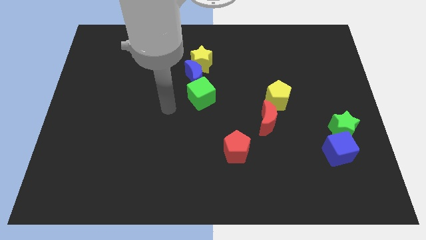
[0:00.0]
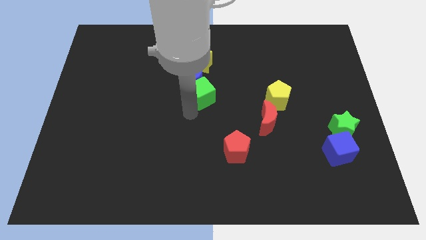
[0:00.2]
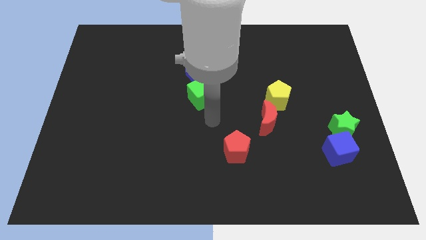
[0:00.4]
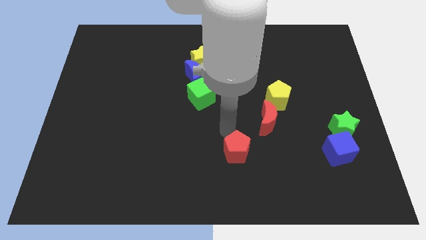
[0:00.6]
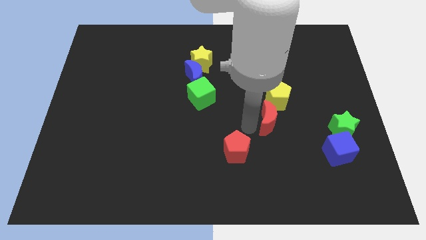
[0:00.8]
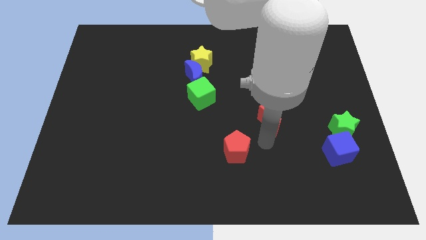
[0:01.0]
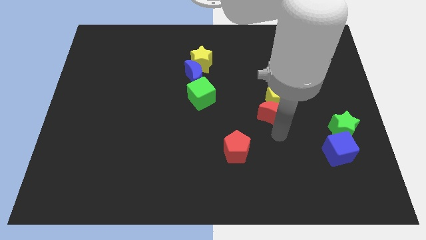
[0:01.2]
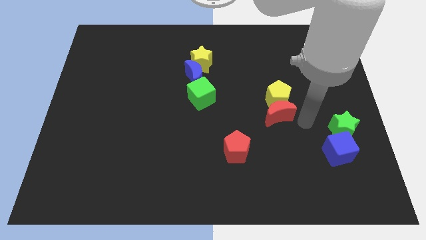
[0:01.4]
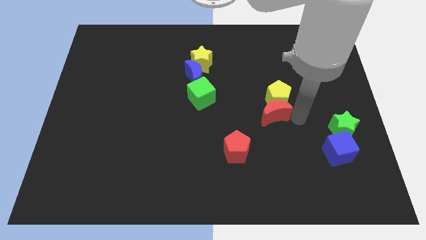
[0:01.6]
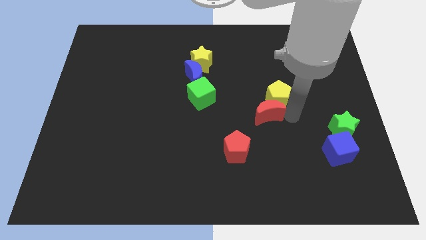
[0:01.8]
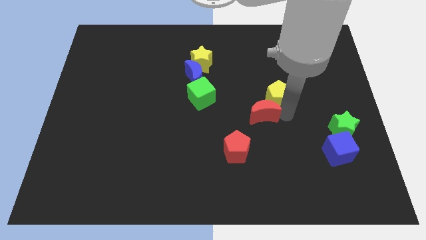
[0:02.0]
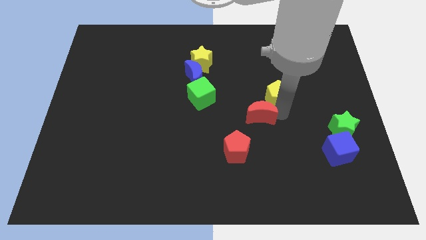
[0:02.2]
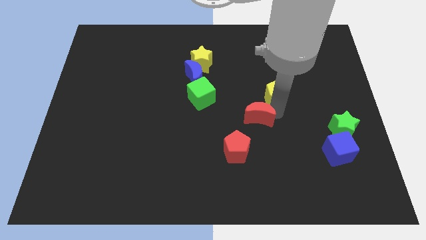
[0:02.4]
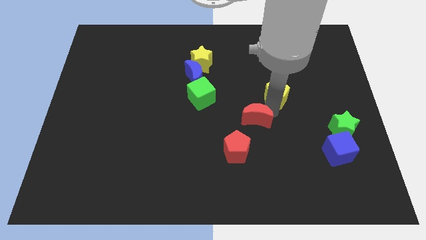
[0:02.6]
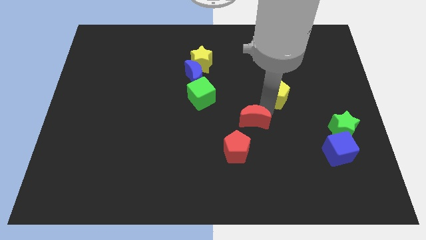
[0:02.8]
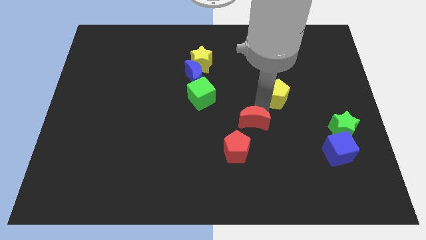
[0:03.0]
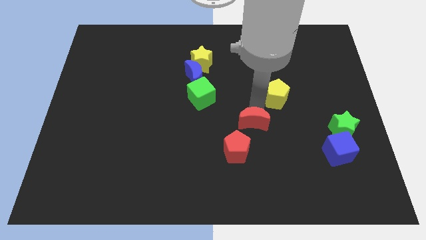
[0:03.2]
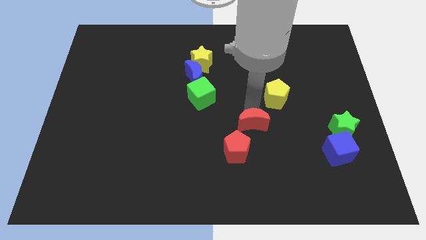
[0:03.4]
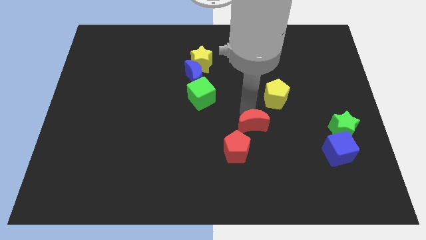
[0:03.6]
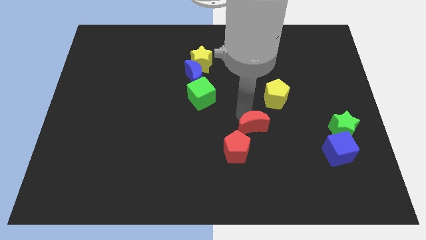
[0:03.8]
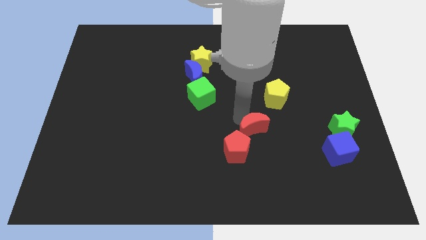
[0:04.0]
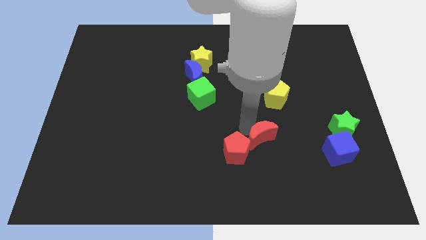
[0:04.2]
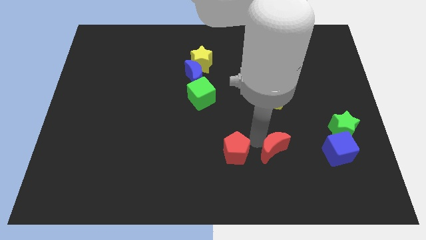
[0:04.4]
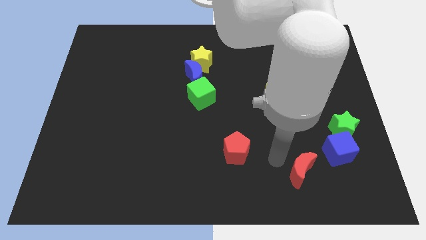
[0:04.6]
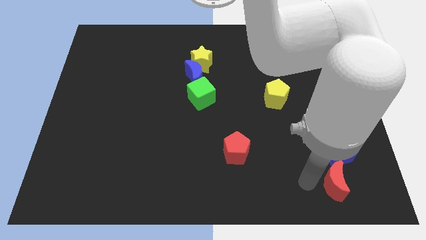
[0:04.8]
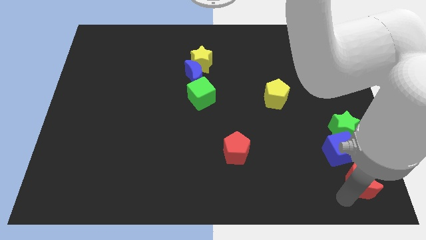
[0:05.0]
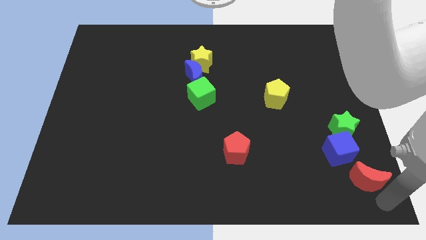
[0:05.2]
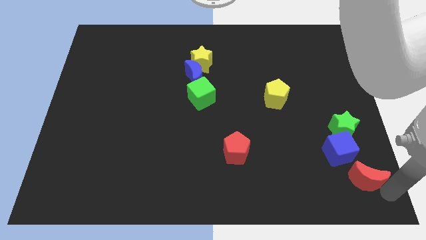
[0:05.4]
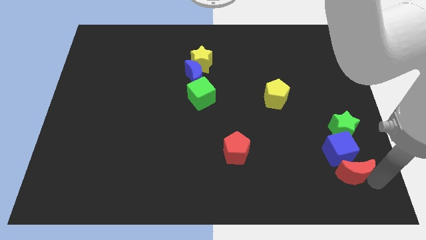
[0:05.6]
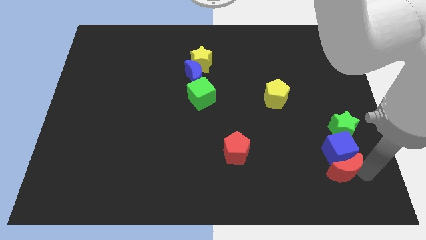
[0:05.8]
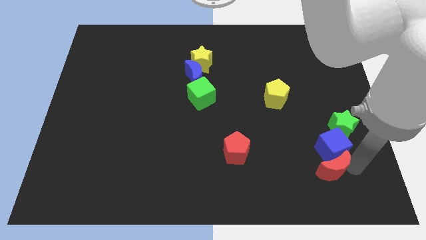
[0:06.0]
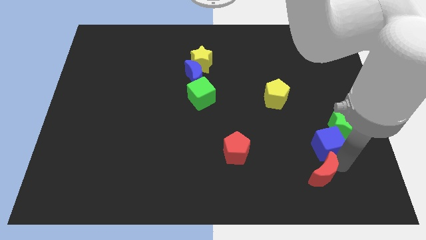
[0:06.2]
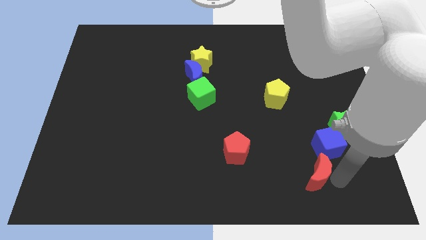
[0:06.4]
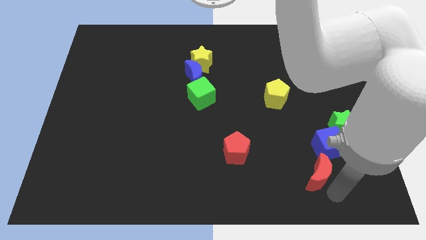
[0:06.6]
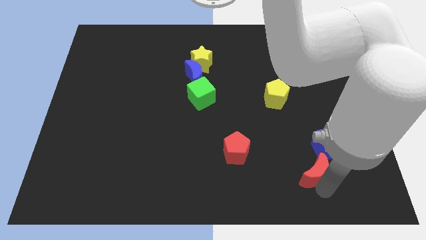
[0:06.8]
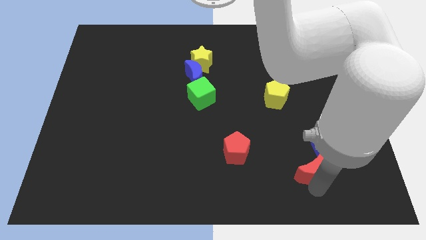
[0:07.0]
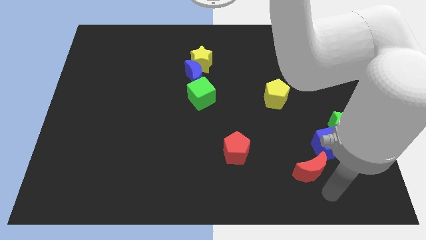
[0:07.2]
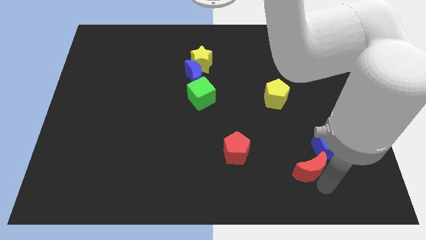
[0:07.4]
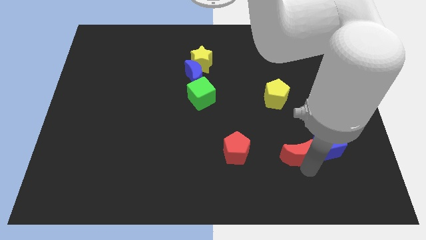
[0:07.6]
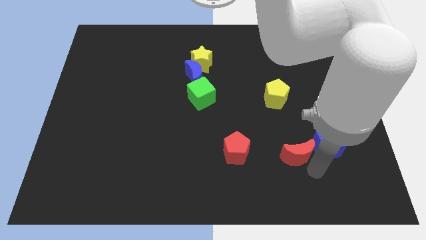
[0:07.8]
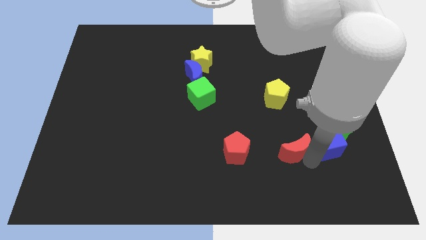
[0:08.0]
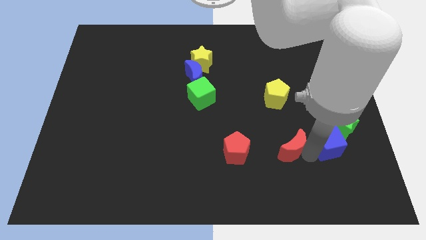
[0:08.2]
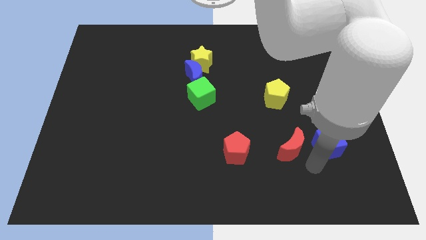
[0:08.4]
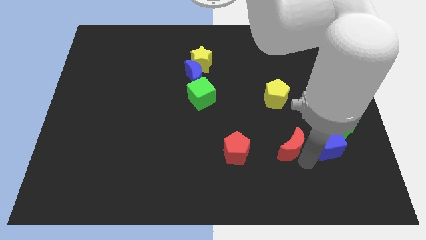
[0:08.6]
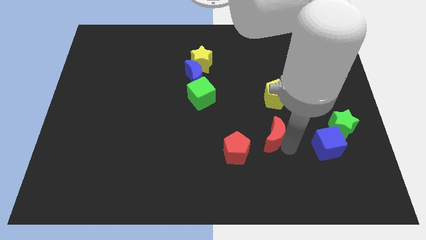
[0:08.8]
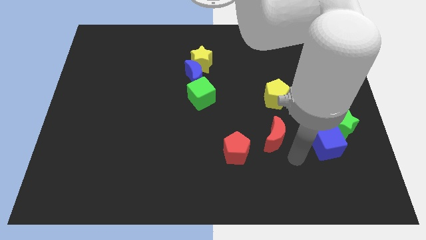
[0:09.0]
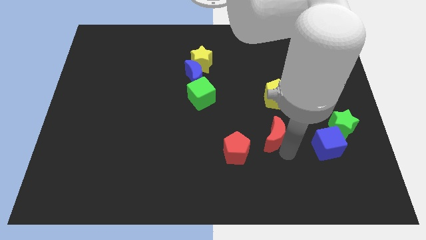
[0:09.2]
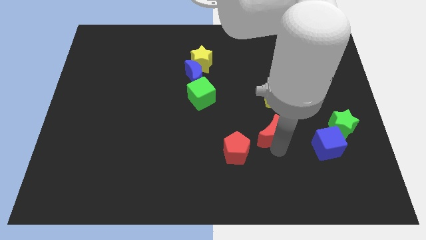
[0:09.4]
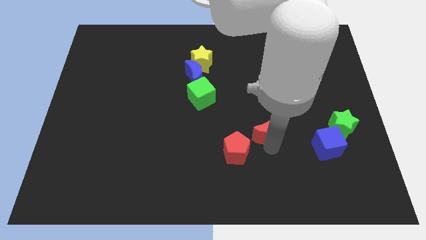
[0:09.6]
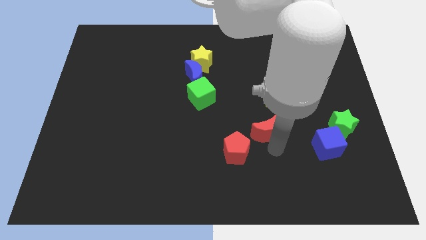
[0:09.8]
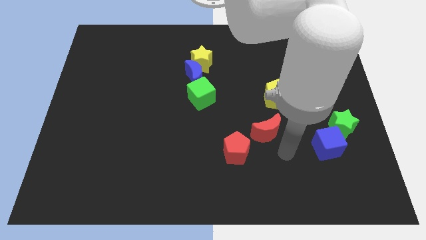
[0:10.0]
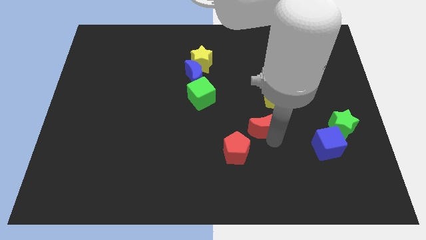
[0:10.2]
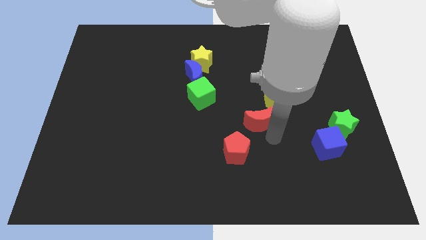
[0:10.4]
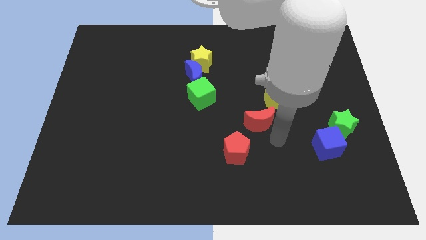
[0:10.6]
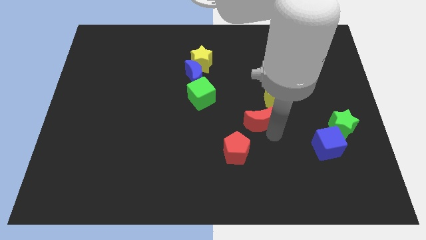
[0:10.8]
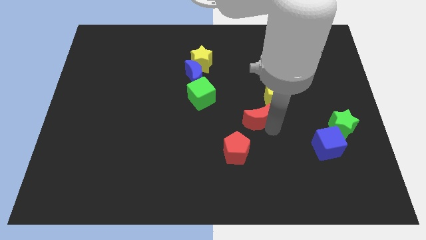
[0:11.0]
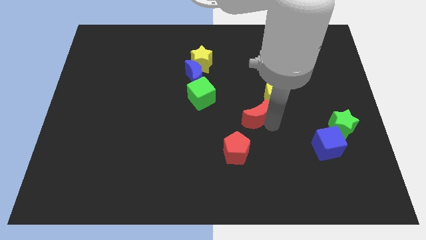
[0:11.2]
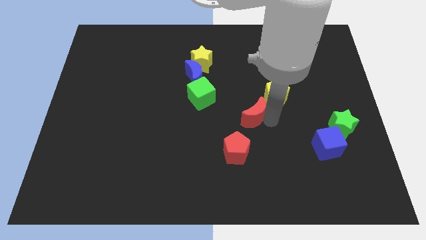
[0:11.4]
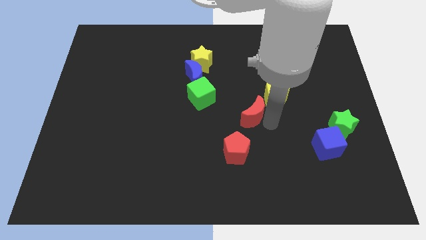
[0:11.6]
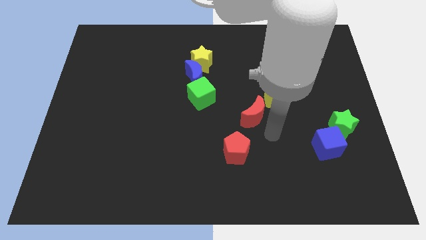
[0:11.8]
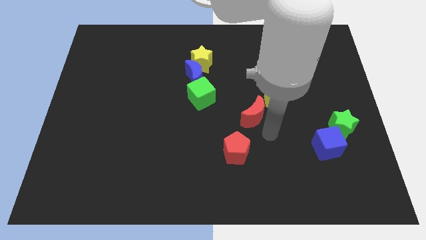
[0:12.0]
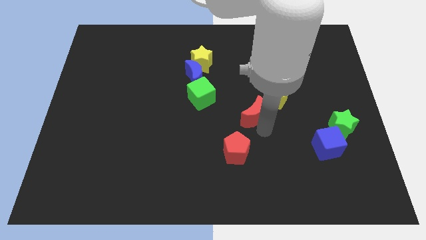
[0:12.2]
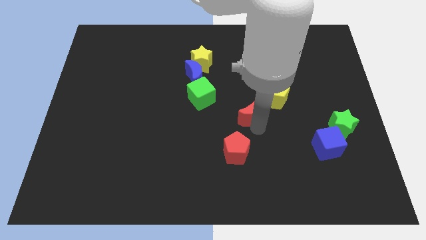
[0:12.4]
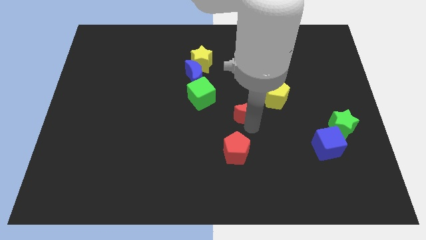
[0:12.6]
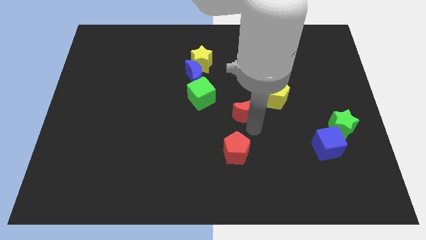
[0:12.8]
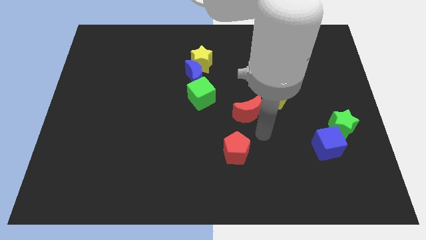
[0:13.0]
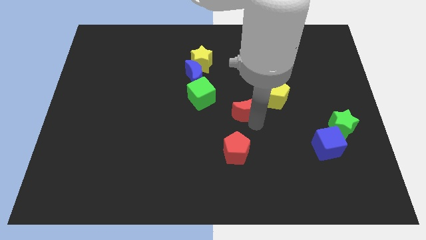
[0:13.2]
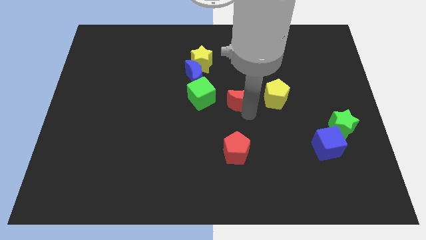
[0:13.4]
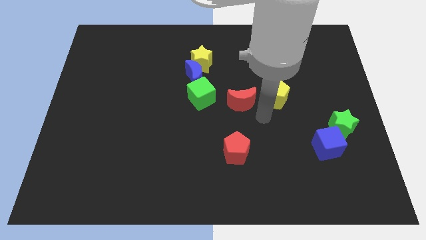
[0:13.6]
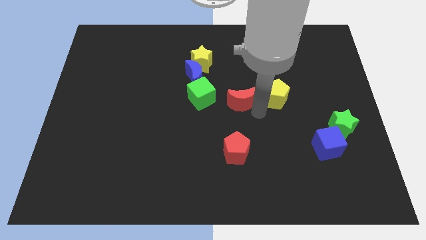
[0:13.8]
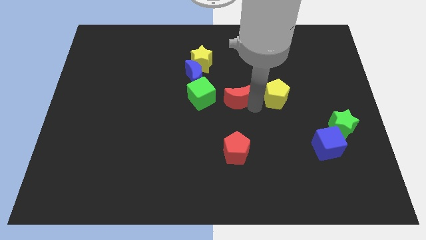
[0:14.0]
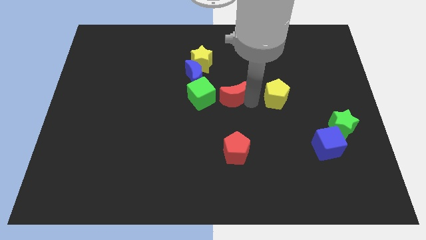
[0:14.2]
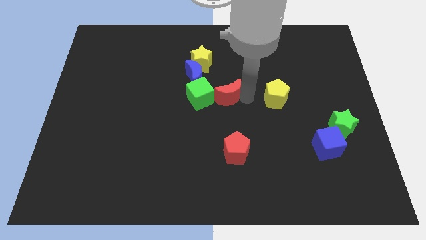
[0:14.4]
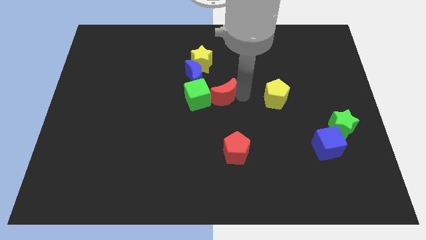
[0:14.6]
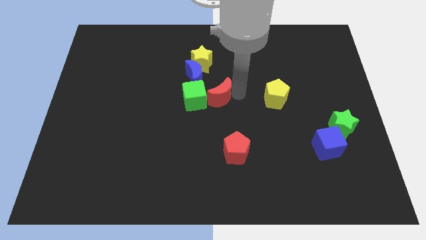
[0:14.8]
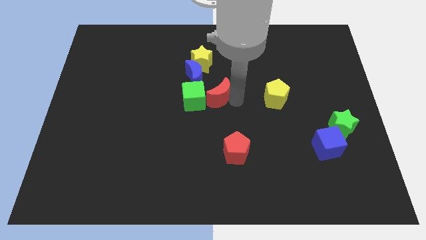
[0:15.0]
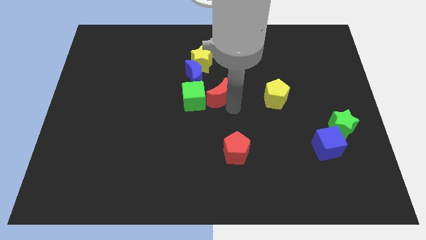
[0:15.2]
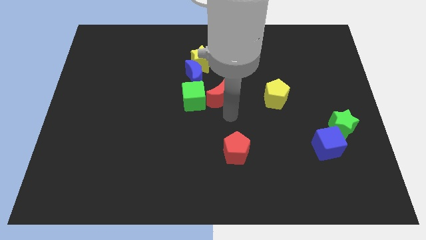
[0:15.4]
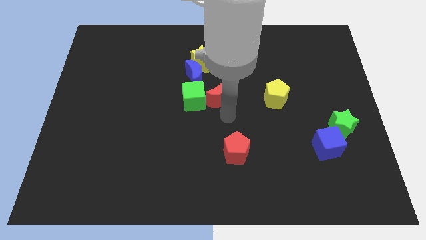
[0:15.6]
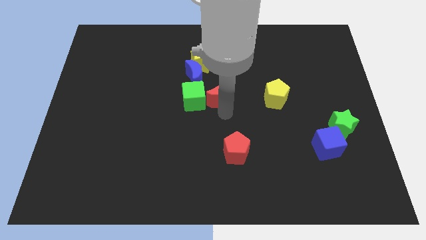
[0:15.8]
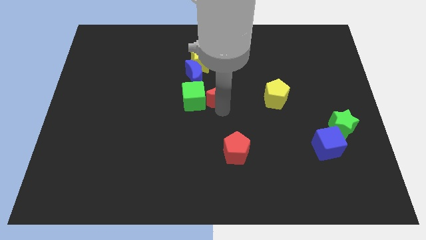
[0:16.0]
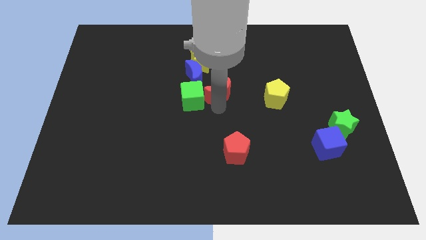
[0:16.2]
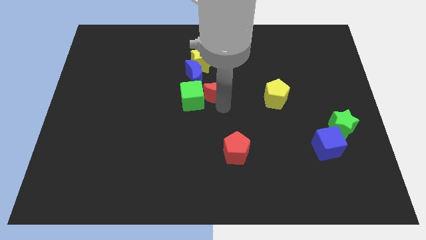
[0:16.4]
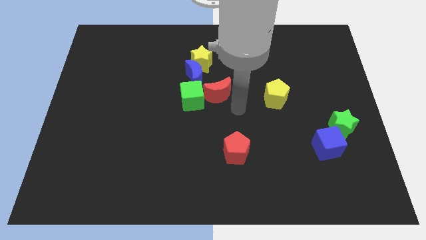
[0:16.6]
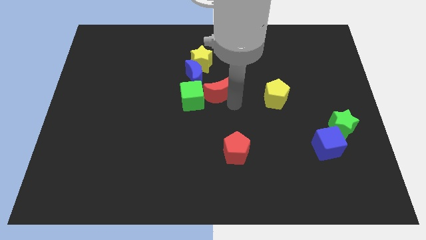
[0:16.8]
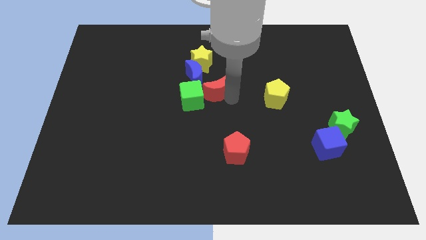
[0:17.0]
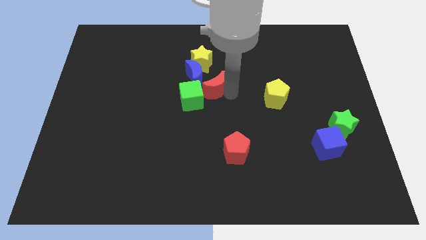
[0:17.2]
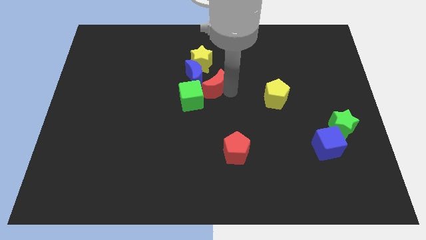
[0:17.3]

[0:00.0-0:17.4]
slide the red moon towards the blue moon
